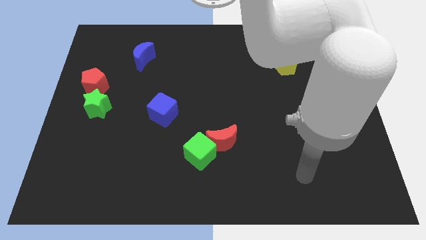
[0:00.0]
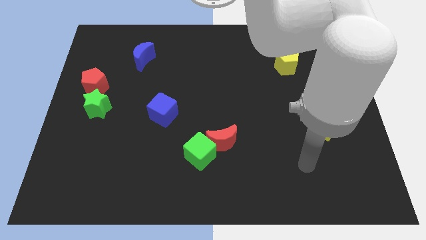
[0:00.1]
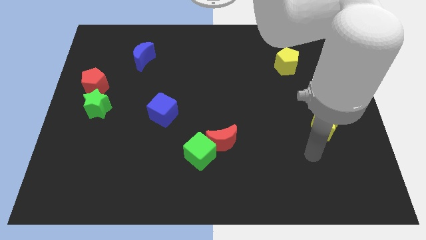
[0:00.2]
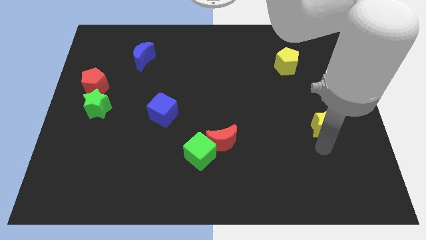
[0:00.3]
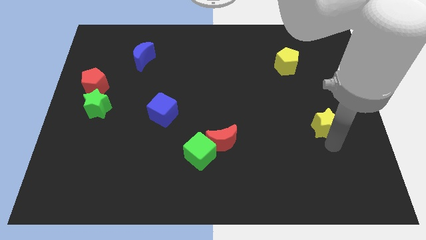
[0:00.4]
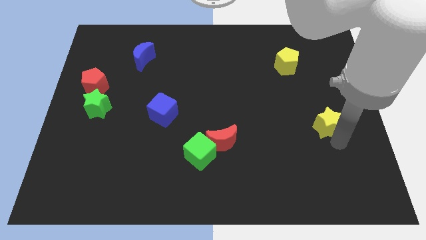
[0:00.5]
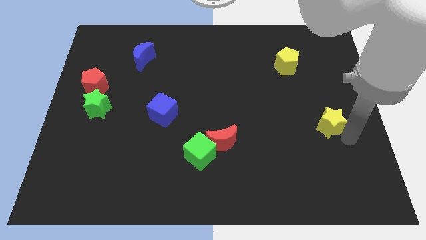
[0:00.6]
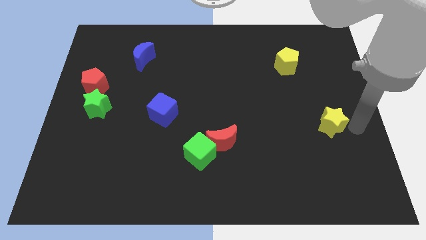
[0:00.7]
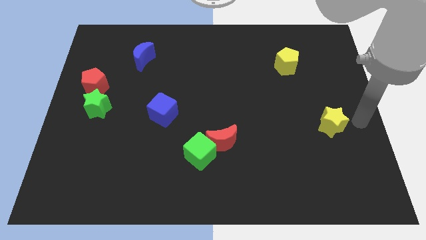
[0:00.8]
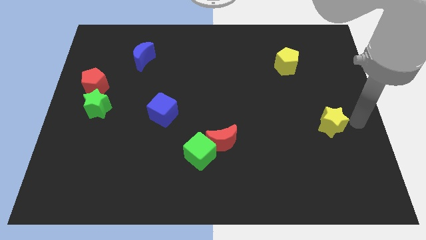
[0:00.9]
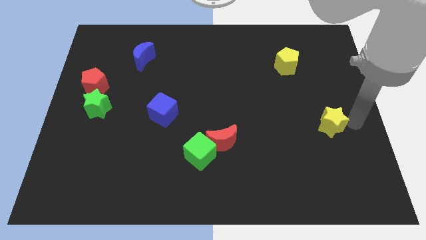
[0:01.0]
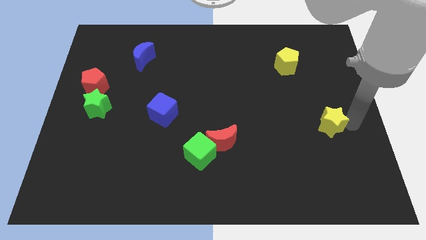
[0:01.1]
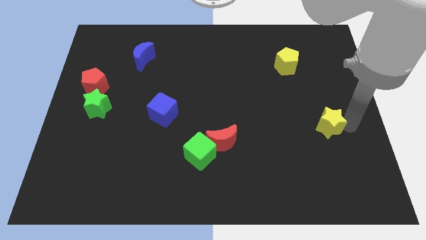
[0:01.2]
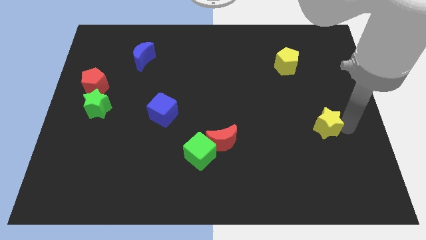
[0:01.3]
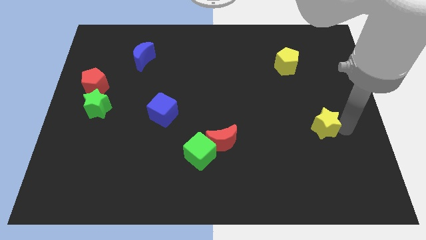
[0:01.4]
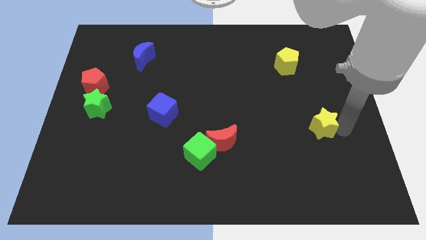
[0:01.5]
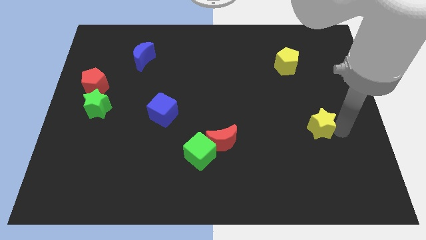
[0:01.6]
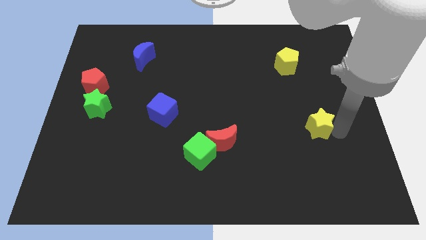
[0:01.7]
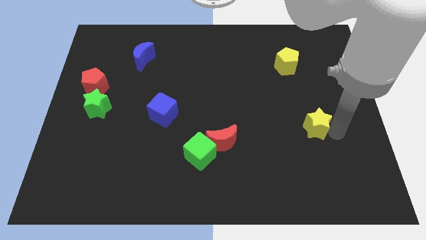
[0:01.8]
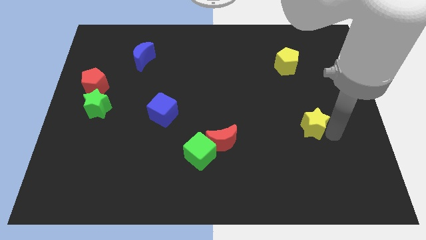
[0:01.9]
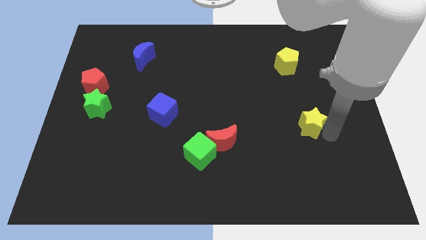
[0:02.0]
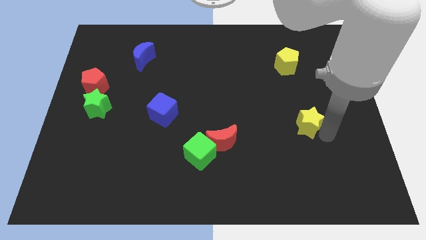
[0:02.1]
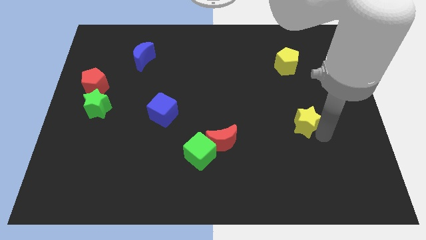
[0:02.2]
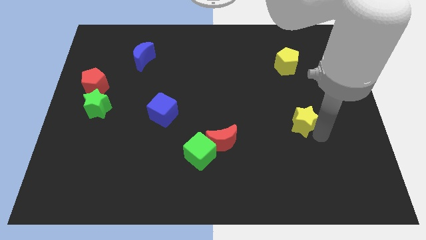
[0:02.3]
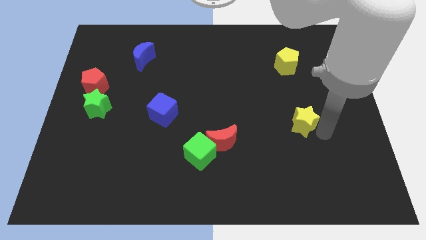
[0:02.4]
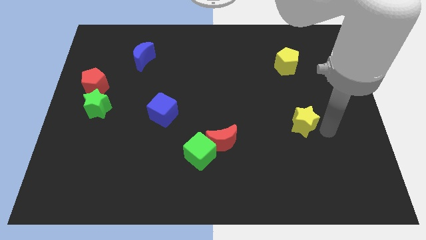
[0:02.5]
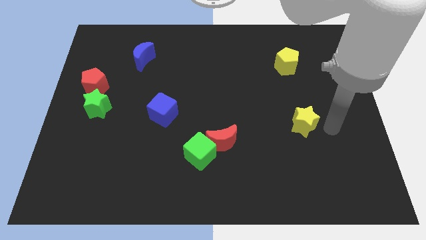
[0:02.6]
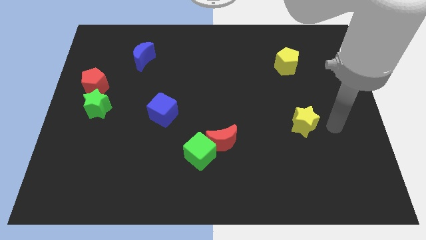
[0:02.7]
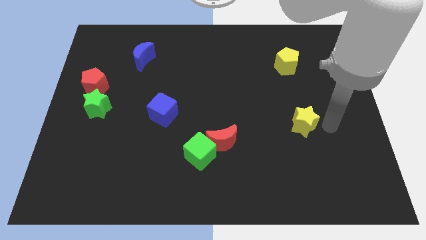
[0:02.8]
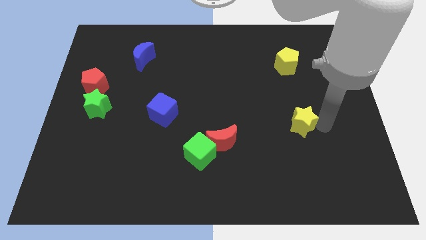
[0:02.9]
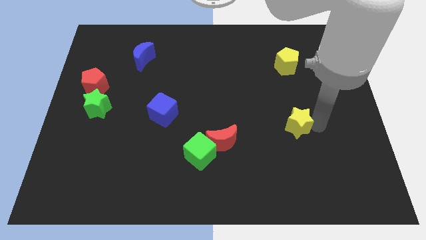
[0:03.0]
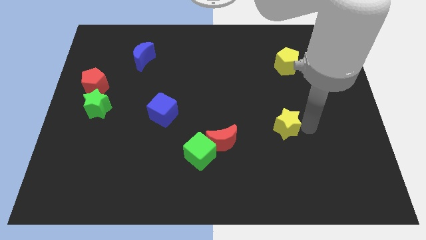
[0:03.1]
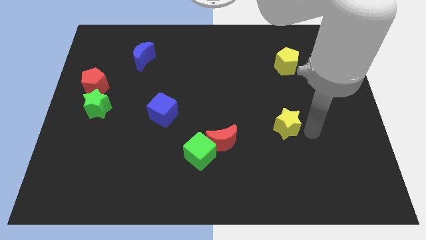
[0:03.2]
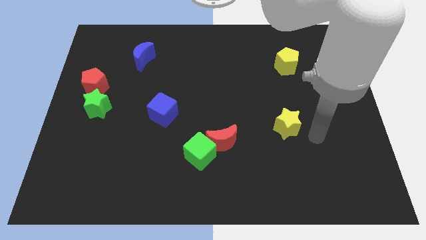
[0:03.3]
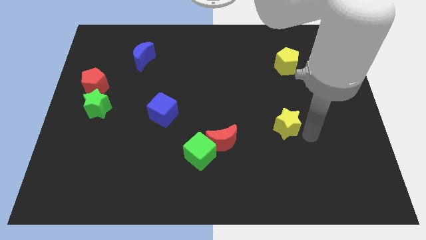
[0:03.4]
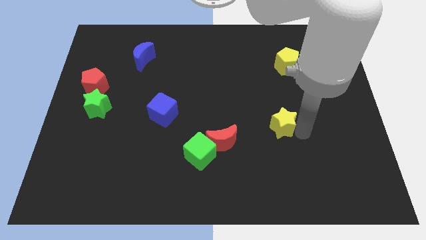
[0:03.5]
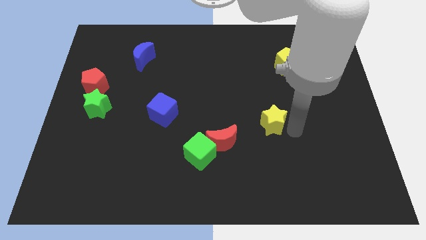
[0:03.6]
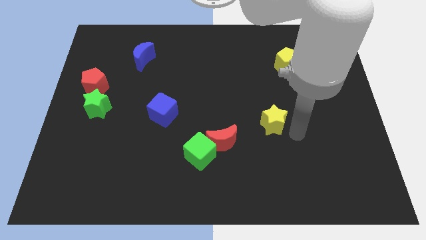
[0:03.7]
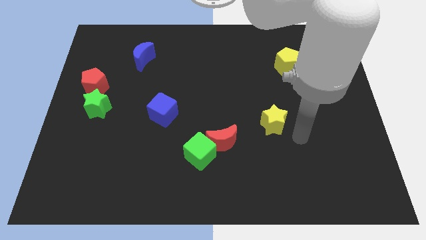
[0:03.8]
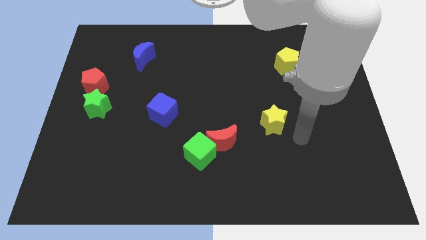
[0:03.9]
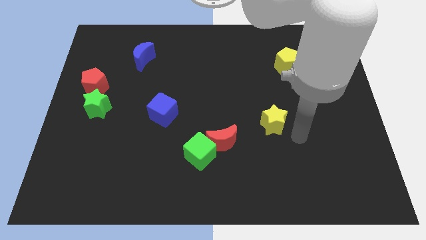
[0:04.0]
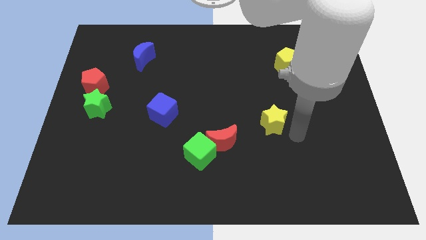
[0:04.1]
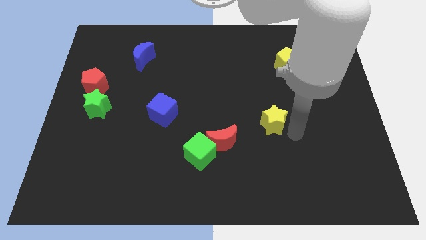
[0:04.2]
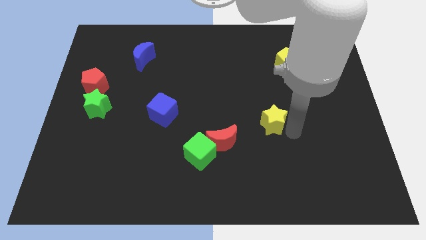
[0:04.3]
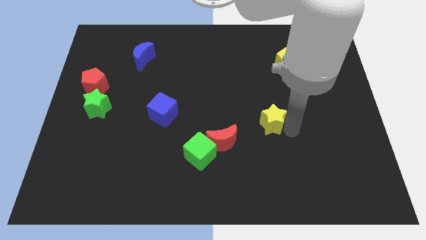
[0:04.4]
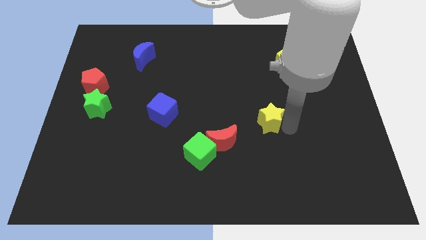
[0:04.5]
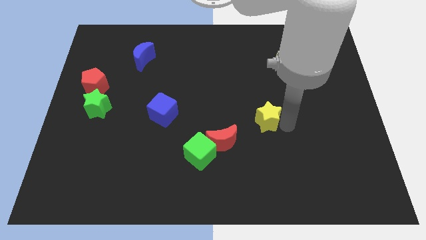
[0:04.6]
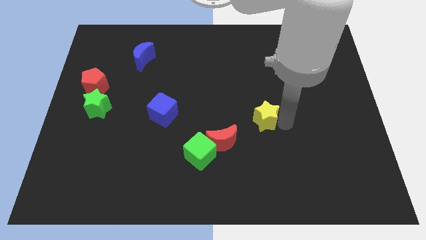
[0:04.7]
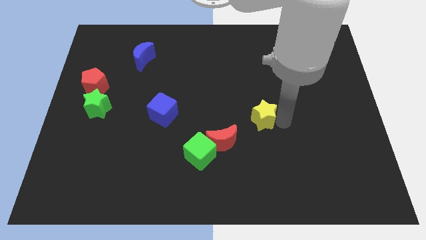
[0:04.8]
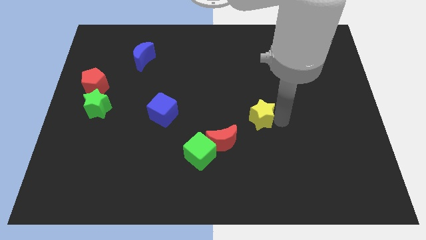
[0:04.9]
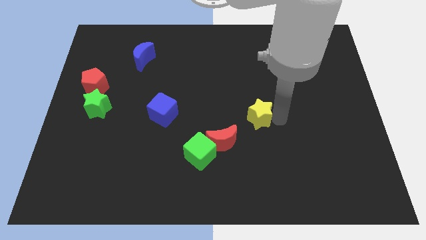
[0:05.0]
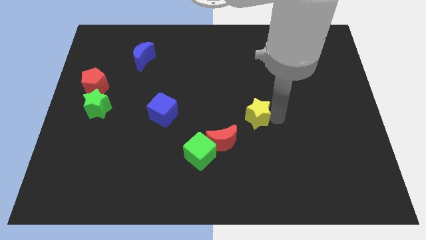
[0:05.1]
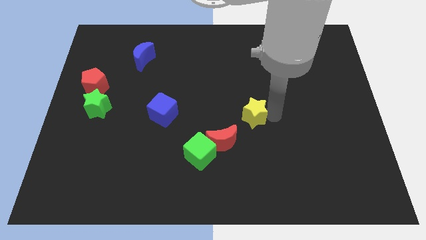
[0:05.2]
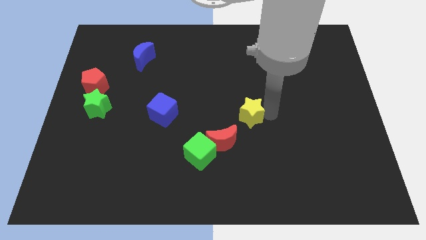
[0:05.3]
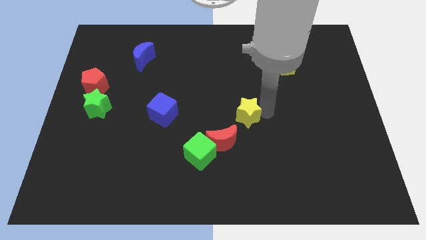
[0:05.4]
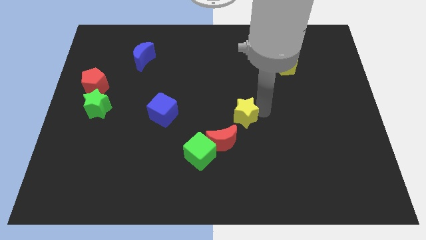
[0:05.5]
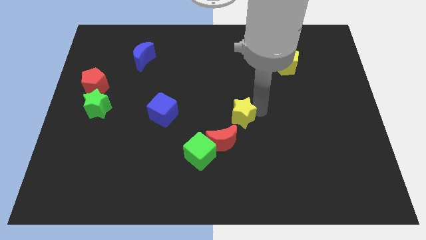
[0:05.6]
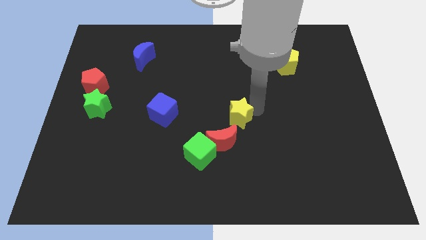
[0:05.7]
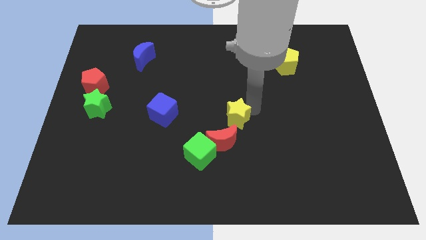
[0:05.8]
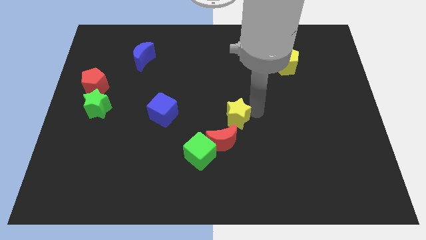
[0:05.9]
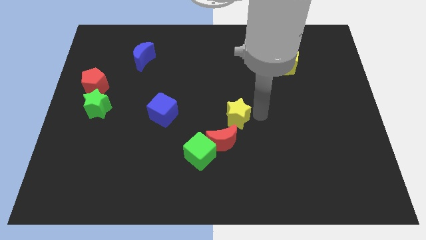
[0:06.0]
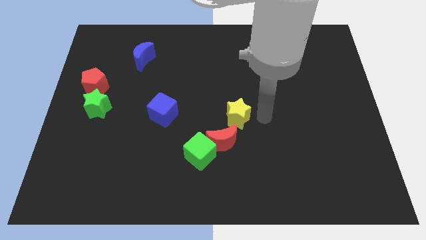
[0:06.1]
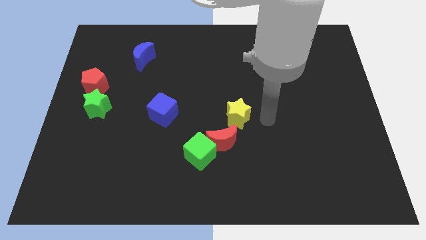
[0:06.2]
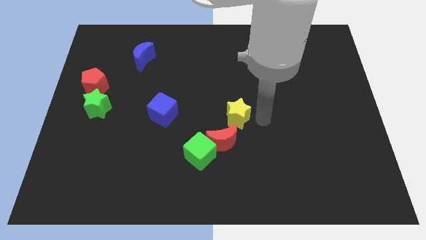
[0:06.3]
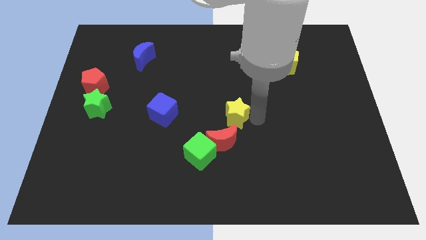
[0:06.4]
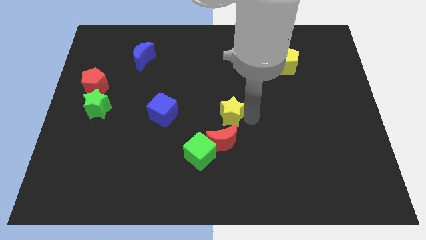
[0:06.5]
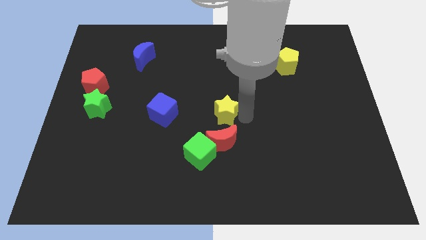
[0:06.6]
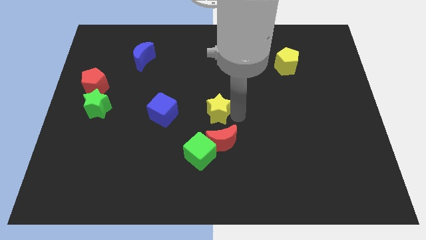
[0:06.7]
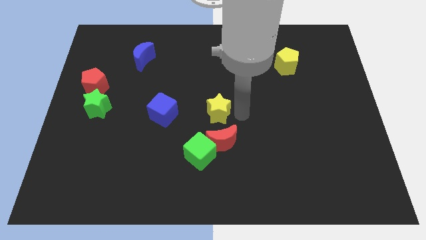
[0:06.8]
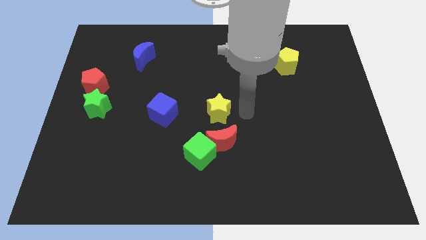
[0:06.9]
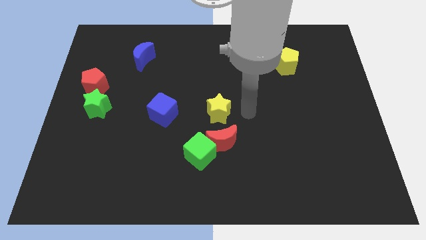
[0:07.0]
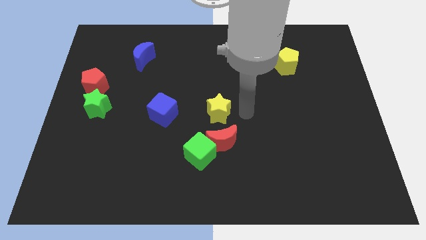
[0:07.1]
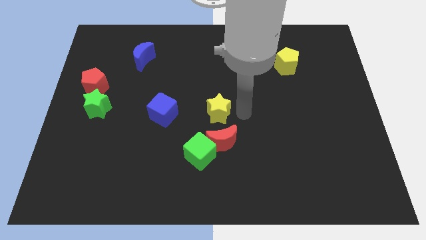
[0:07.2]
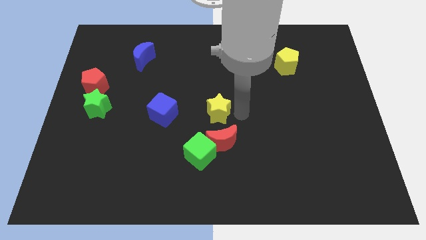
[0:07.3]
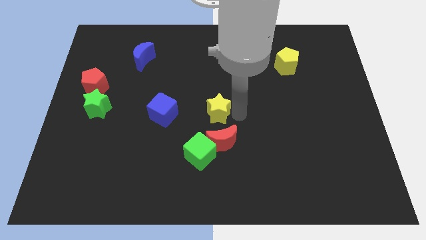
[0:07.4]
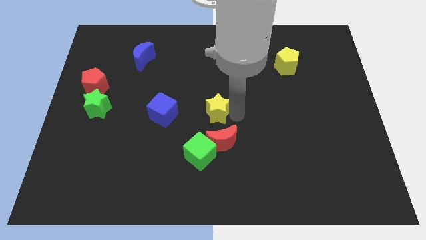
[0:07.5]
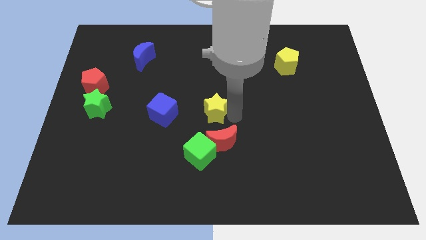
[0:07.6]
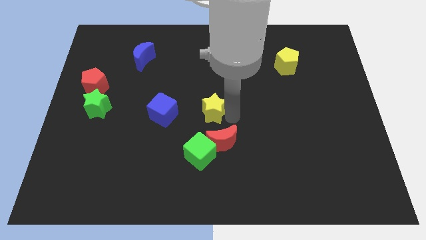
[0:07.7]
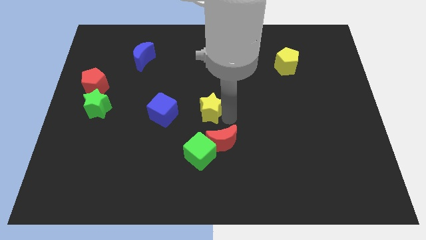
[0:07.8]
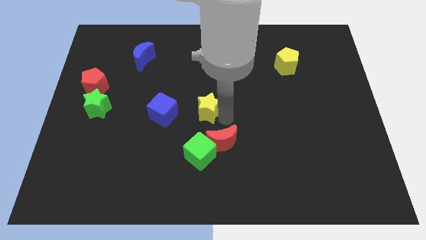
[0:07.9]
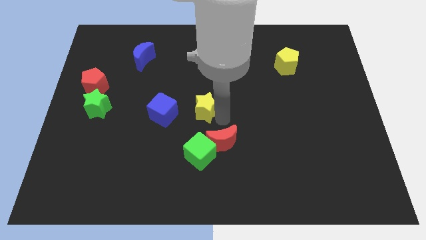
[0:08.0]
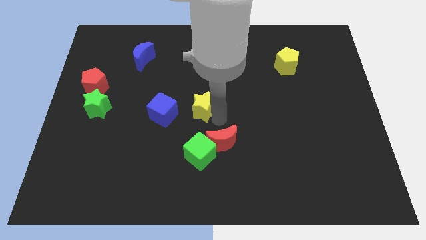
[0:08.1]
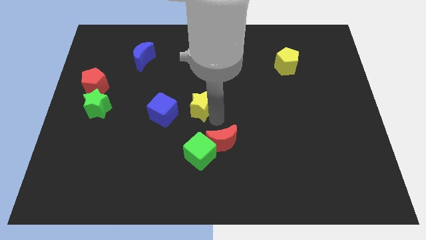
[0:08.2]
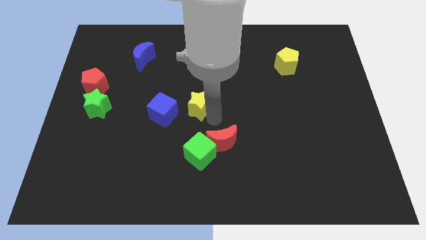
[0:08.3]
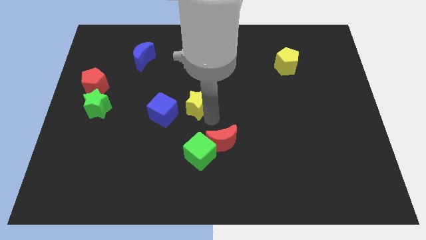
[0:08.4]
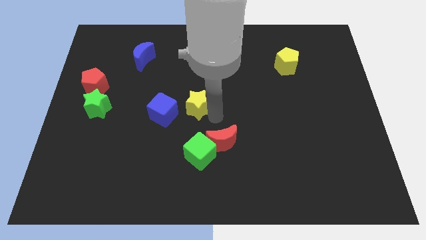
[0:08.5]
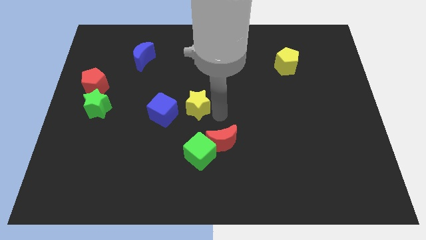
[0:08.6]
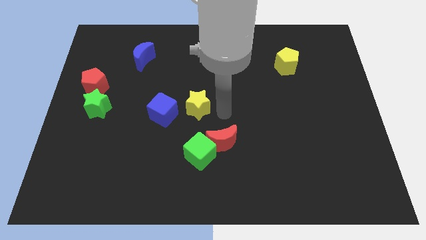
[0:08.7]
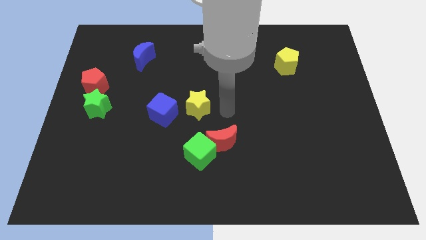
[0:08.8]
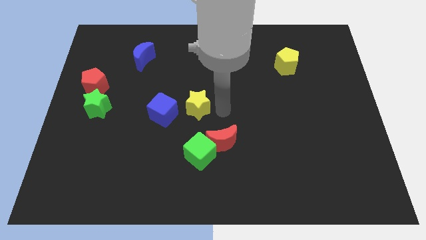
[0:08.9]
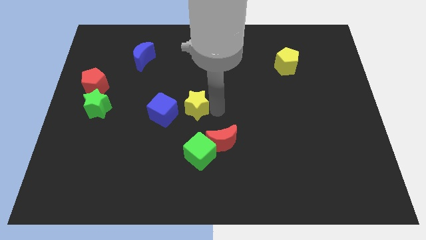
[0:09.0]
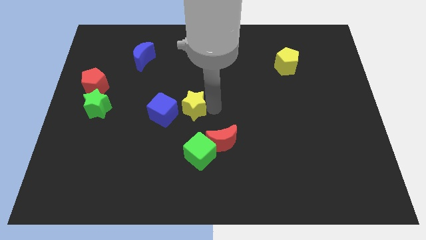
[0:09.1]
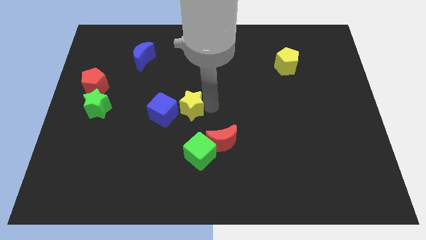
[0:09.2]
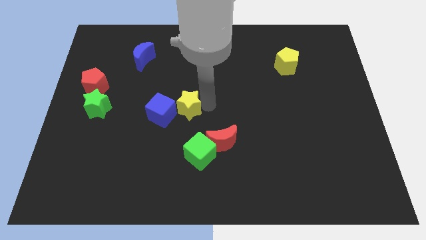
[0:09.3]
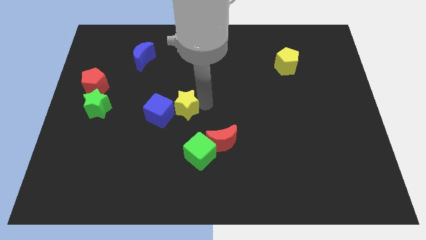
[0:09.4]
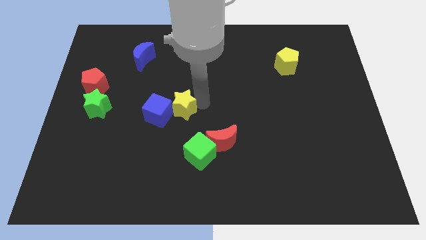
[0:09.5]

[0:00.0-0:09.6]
slide the yellow star towards the blue cube
